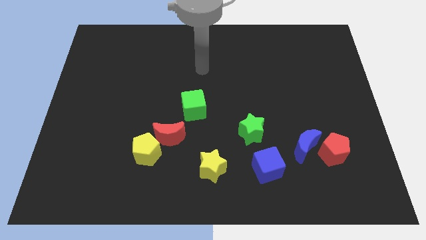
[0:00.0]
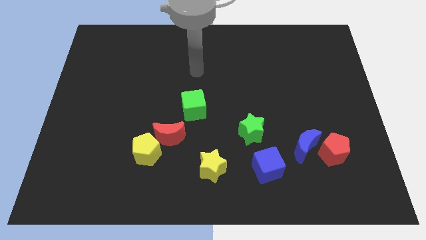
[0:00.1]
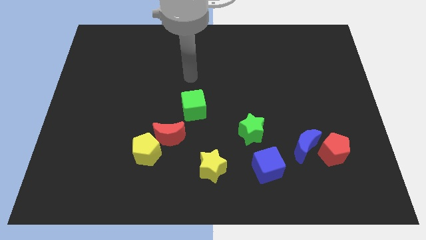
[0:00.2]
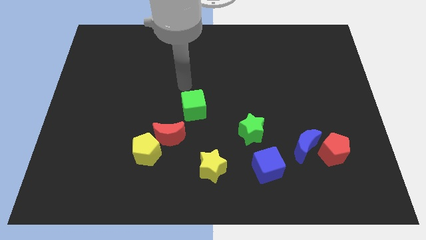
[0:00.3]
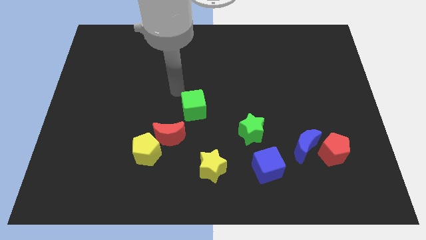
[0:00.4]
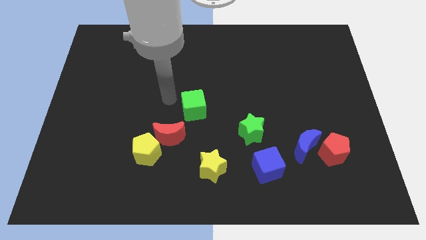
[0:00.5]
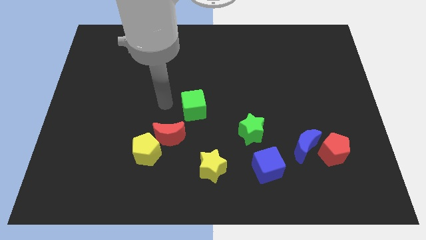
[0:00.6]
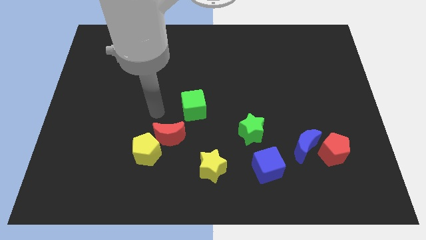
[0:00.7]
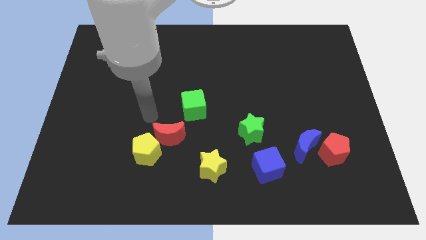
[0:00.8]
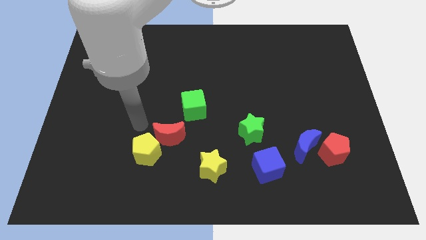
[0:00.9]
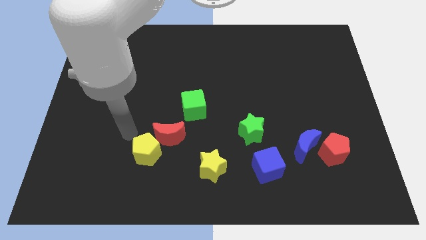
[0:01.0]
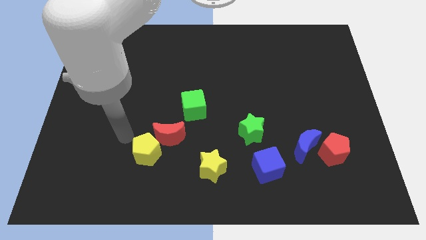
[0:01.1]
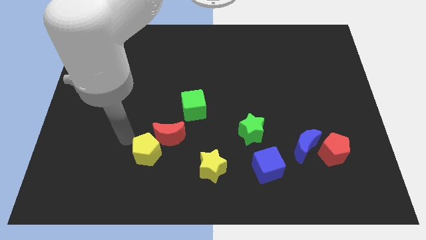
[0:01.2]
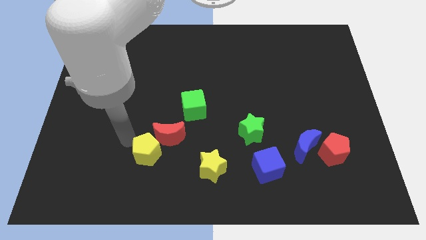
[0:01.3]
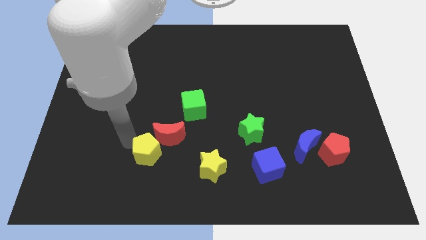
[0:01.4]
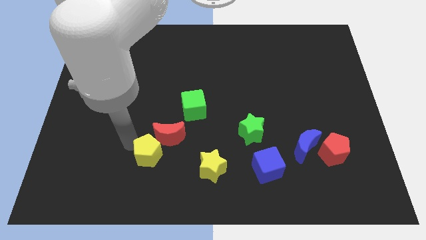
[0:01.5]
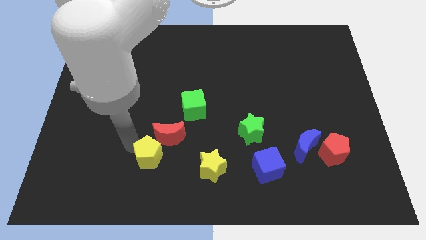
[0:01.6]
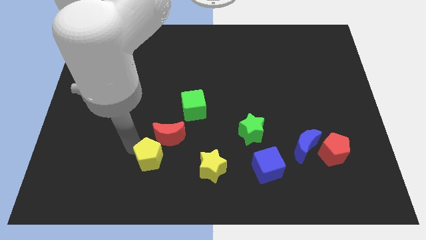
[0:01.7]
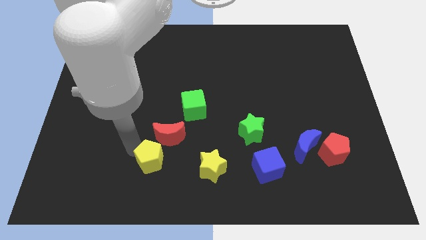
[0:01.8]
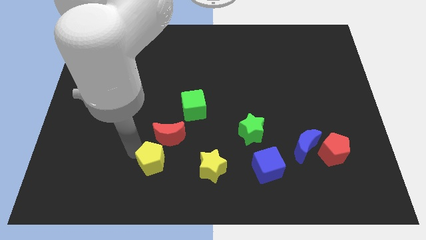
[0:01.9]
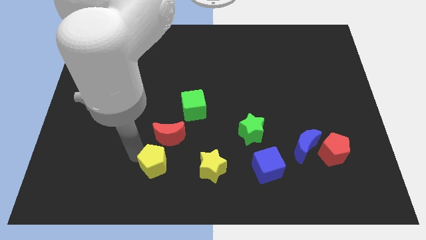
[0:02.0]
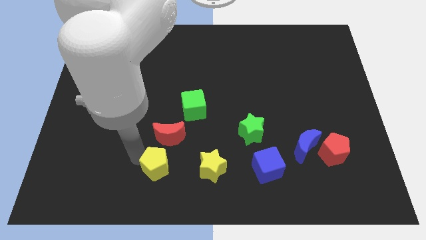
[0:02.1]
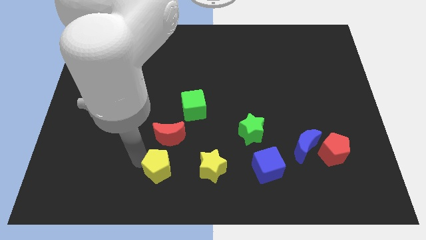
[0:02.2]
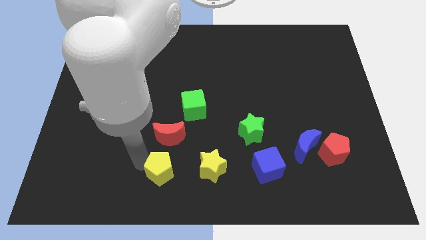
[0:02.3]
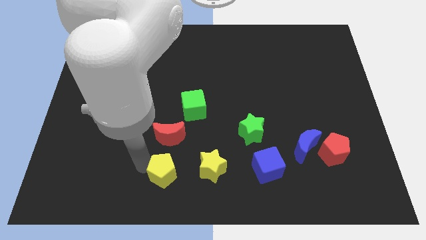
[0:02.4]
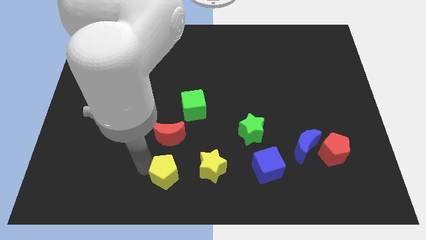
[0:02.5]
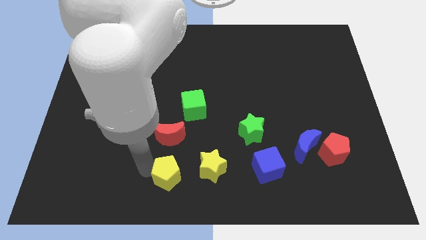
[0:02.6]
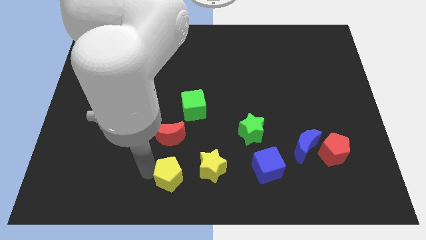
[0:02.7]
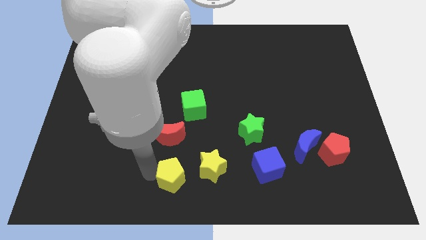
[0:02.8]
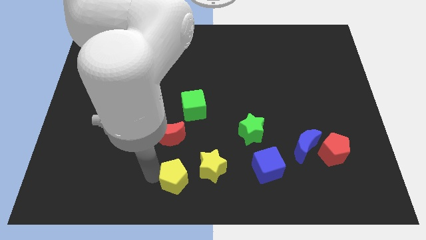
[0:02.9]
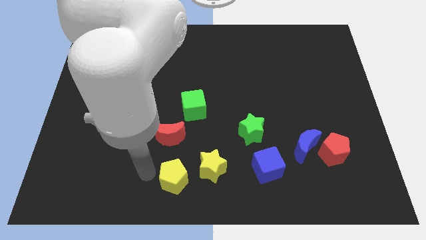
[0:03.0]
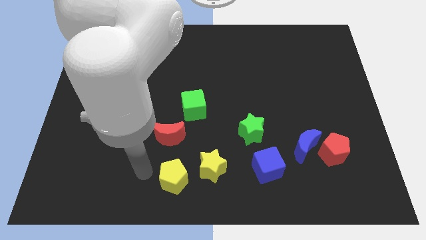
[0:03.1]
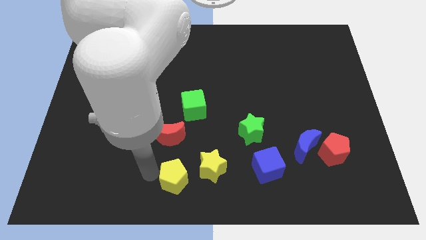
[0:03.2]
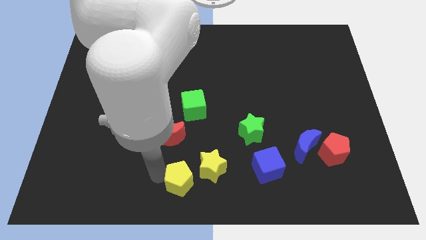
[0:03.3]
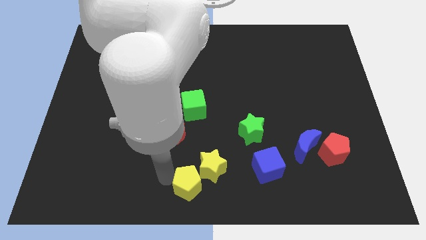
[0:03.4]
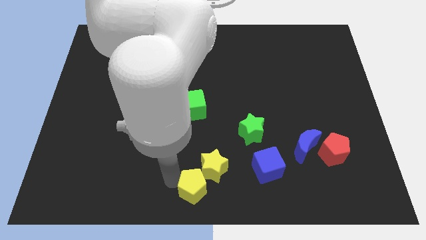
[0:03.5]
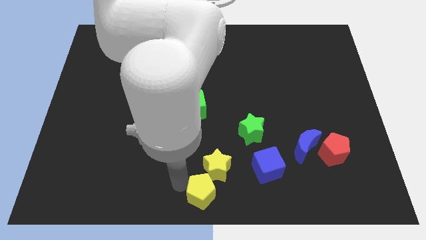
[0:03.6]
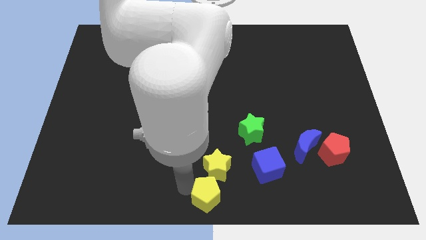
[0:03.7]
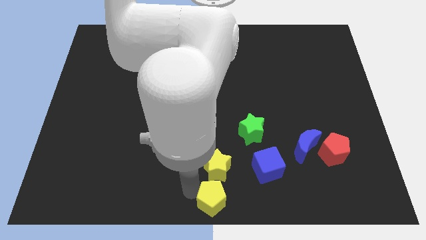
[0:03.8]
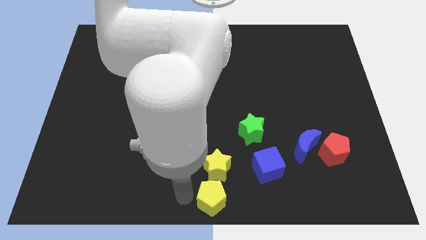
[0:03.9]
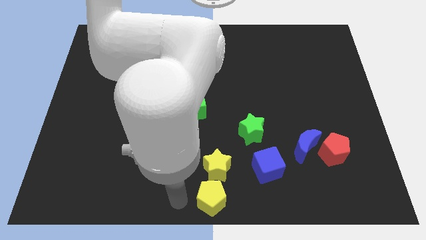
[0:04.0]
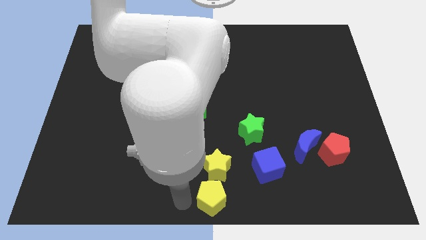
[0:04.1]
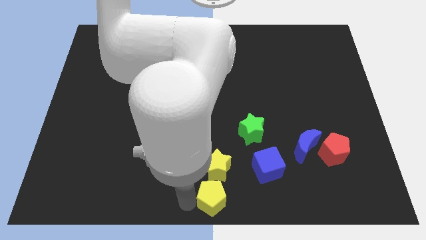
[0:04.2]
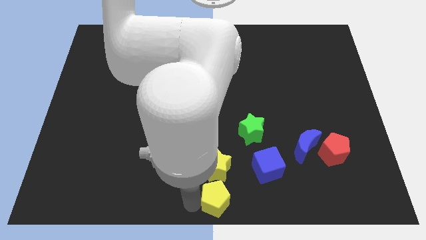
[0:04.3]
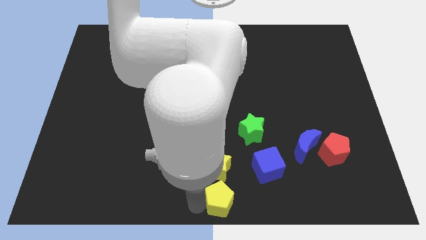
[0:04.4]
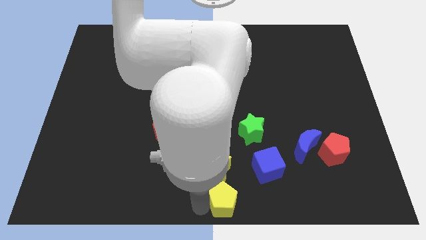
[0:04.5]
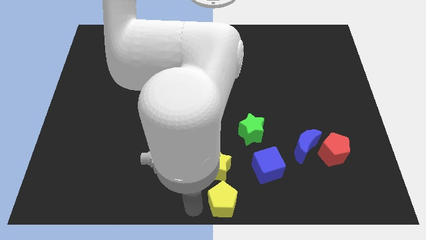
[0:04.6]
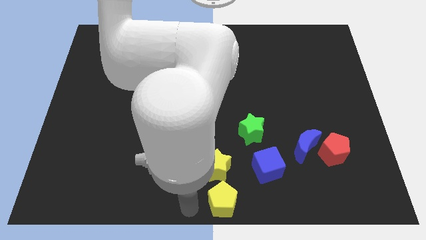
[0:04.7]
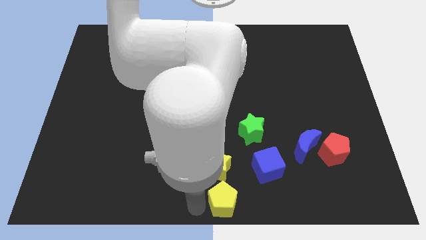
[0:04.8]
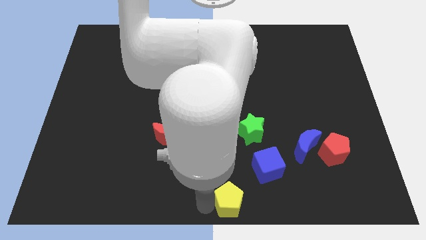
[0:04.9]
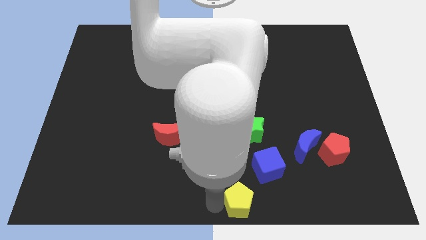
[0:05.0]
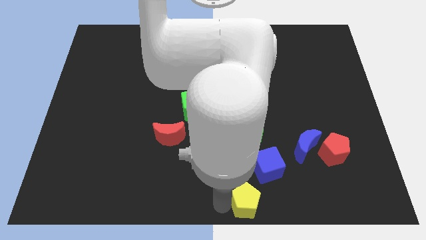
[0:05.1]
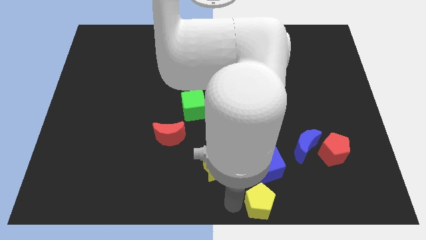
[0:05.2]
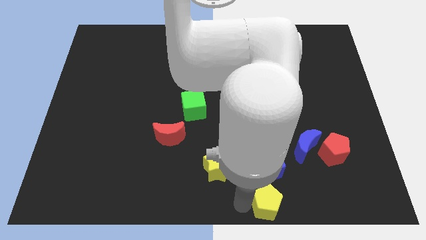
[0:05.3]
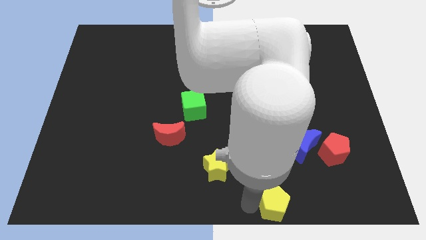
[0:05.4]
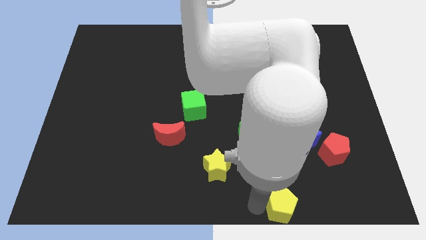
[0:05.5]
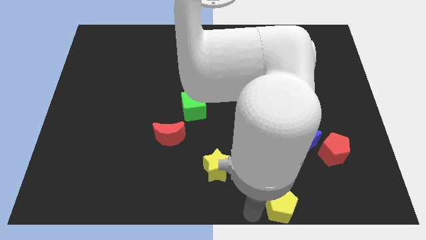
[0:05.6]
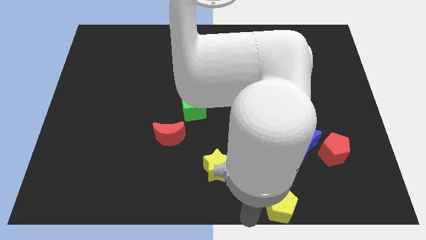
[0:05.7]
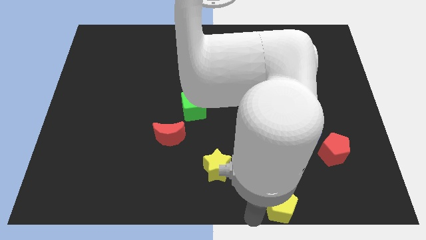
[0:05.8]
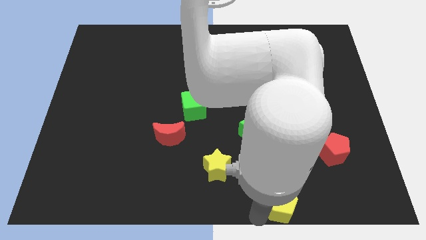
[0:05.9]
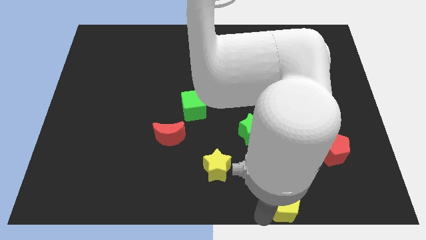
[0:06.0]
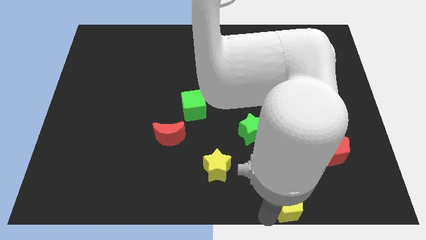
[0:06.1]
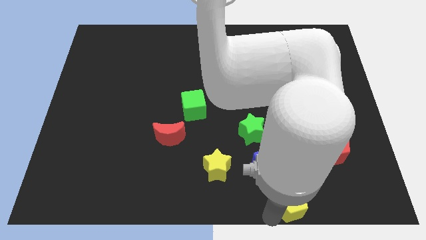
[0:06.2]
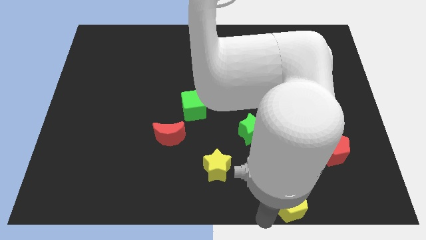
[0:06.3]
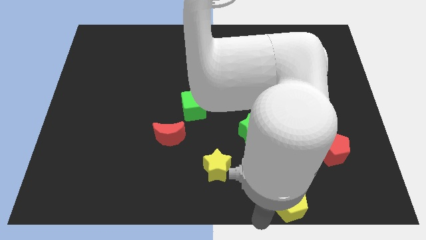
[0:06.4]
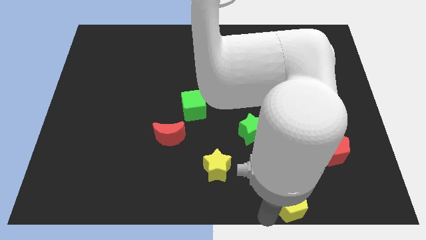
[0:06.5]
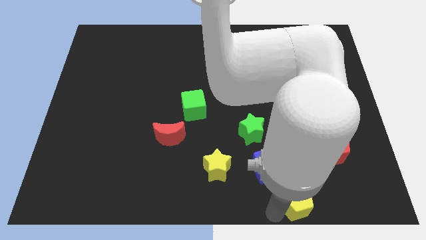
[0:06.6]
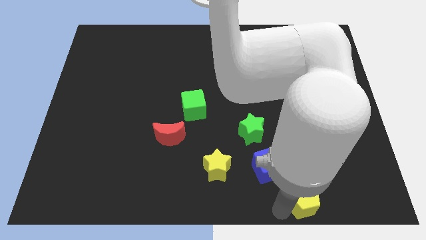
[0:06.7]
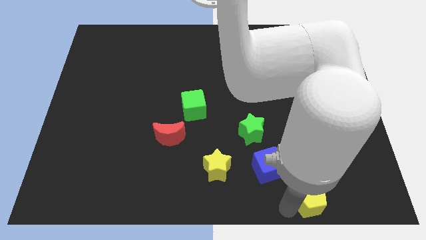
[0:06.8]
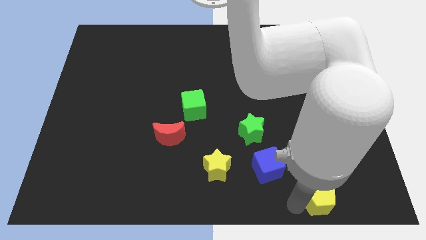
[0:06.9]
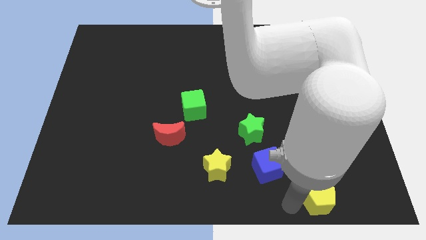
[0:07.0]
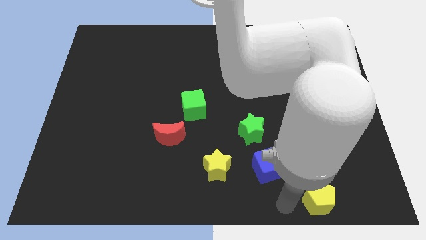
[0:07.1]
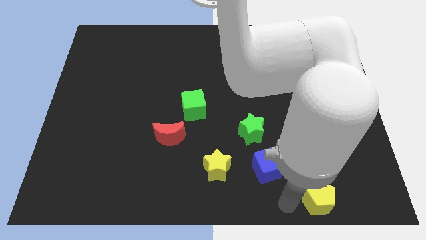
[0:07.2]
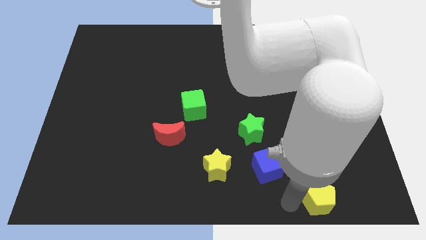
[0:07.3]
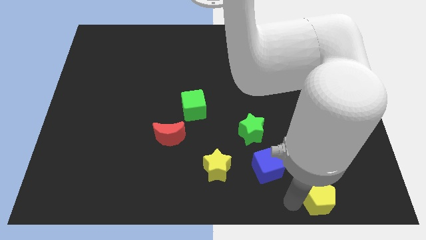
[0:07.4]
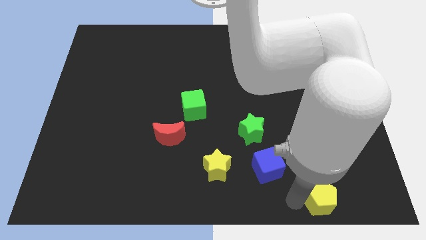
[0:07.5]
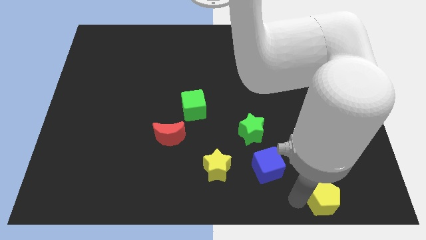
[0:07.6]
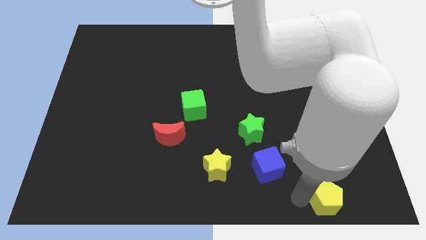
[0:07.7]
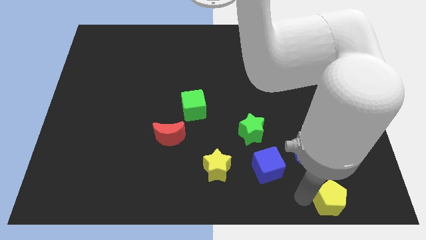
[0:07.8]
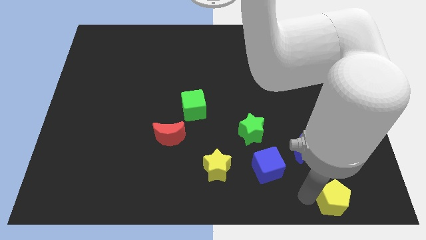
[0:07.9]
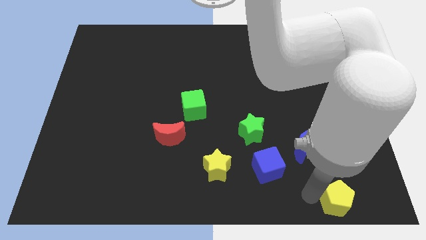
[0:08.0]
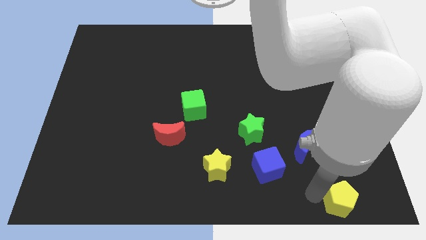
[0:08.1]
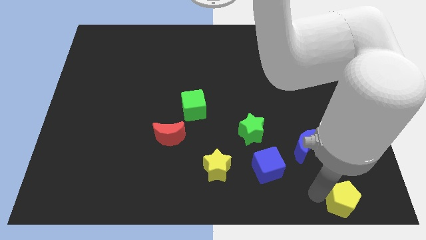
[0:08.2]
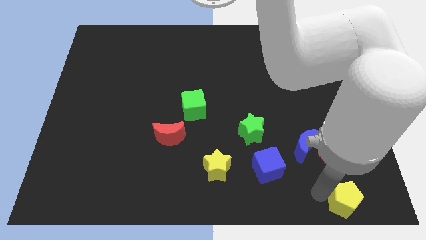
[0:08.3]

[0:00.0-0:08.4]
slide the yellow pentagon to the bottom right
